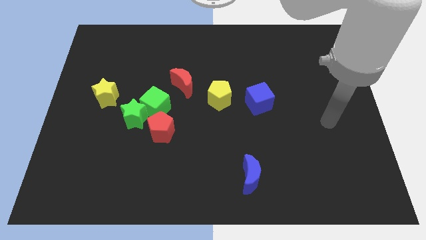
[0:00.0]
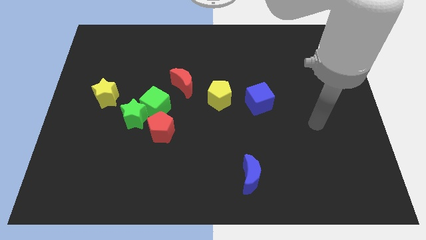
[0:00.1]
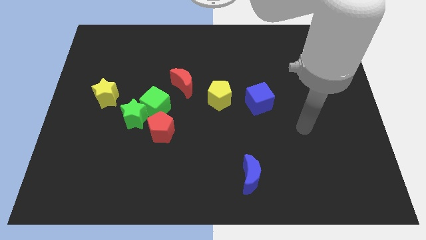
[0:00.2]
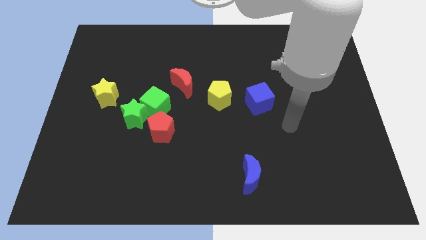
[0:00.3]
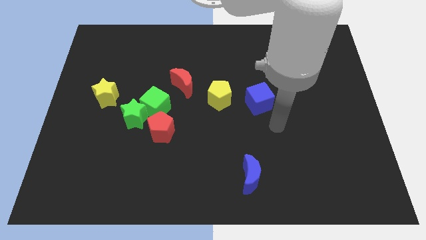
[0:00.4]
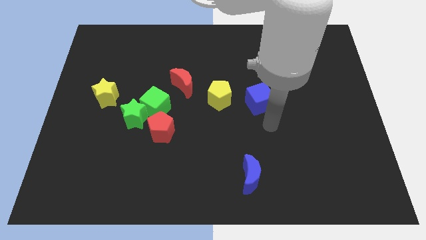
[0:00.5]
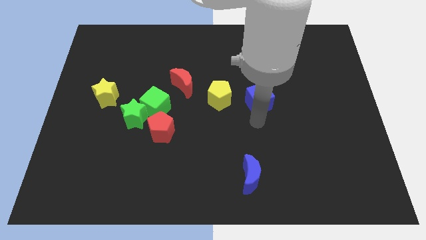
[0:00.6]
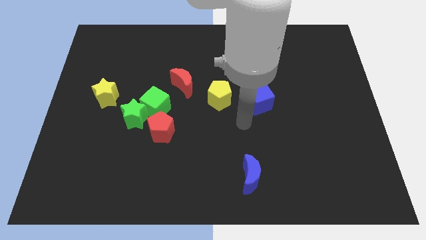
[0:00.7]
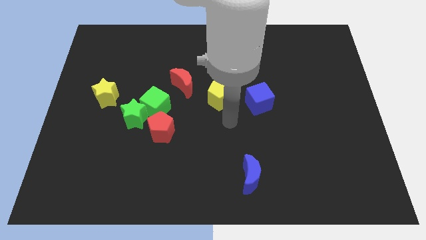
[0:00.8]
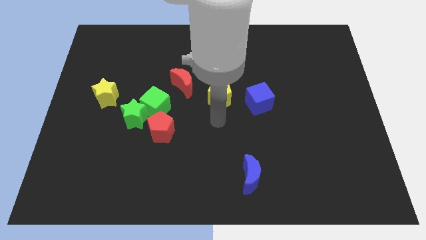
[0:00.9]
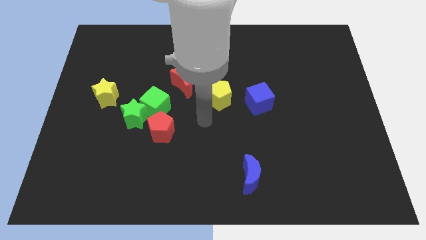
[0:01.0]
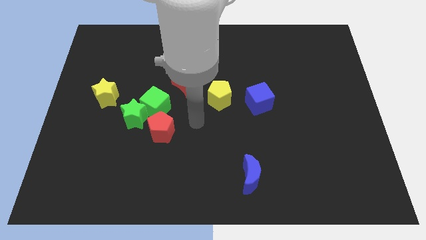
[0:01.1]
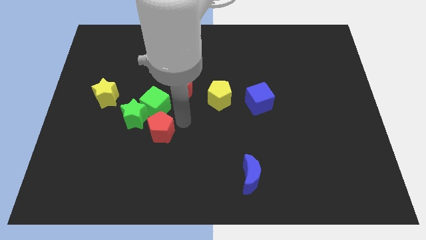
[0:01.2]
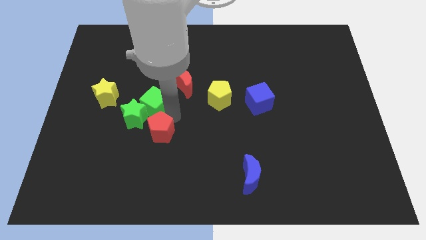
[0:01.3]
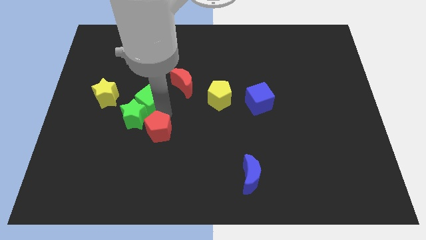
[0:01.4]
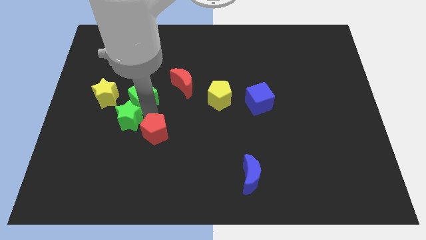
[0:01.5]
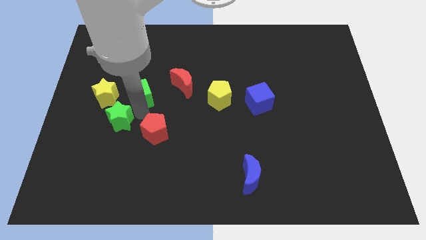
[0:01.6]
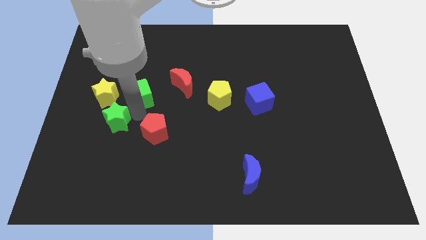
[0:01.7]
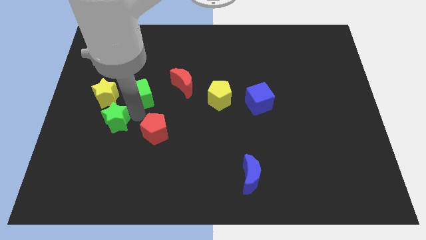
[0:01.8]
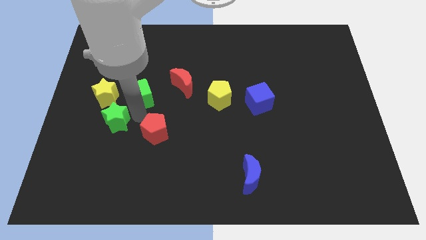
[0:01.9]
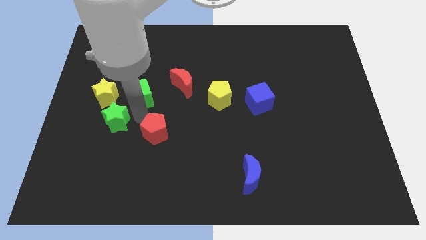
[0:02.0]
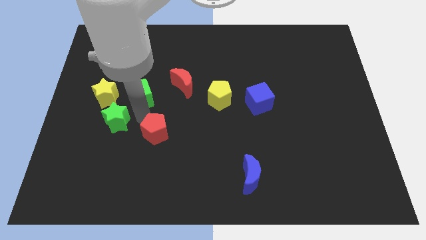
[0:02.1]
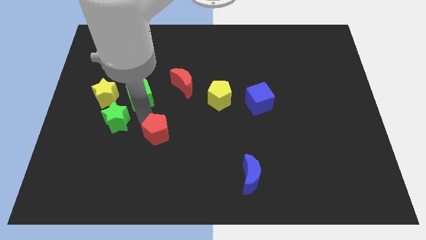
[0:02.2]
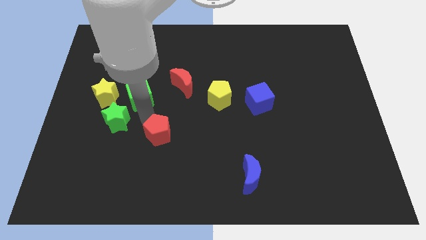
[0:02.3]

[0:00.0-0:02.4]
pull the red pentagon apart from the green cube and green star

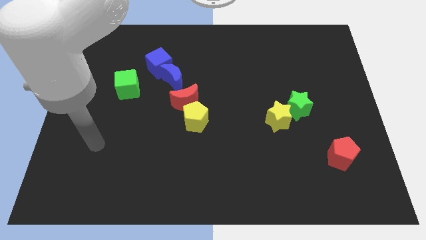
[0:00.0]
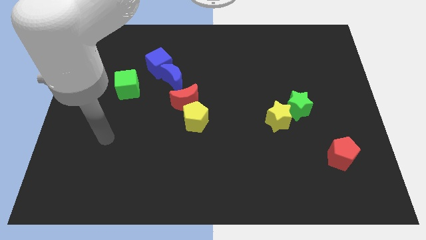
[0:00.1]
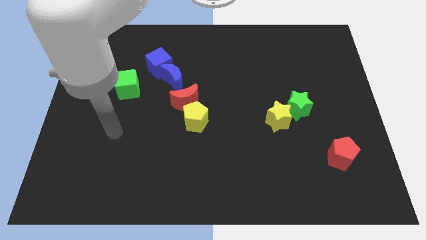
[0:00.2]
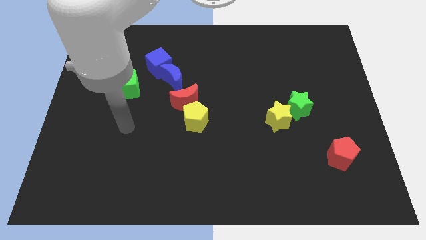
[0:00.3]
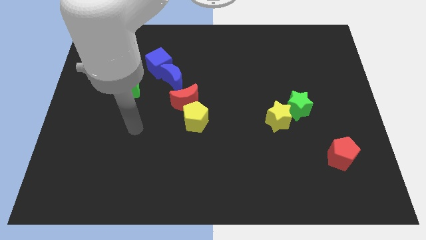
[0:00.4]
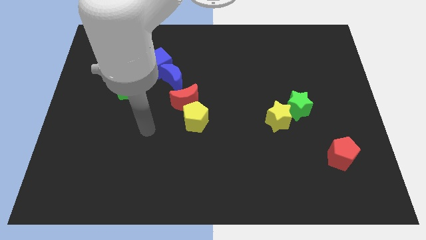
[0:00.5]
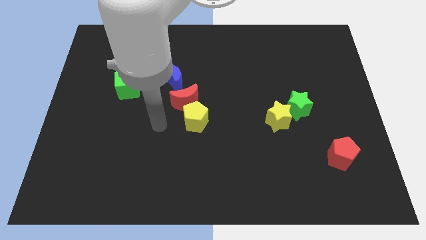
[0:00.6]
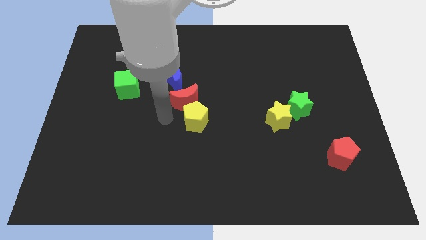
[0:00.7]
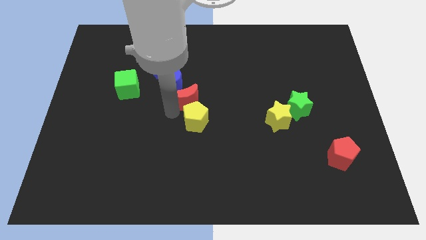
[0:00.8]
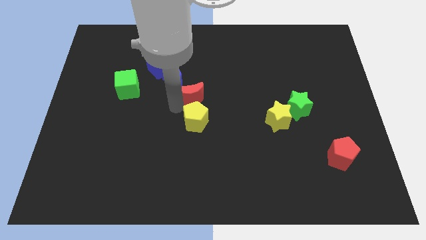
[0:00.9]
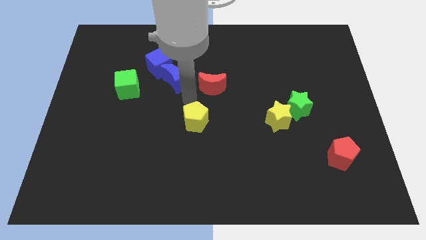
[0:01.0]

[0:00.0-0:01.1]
move the yellow pentagon away from the red moon

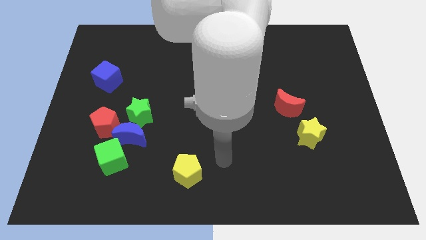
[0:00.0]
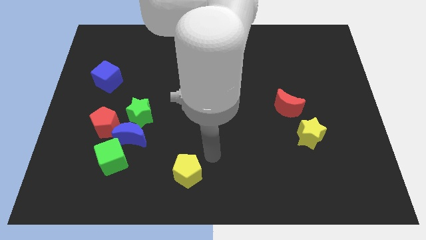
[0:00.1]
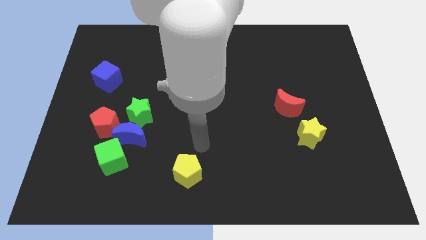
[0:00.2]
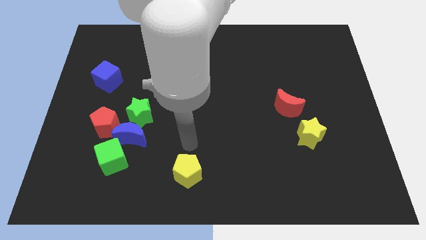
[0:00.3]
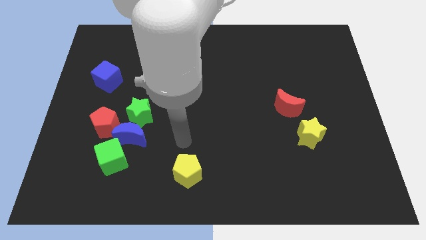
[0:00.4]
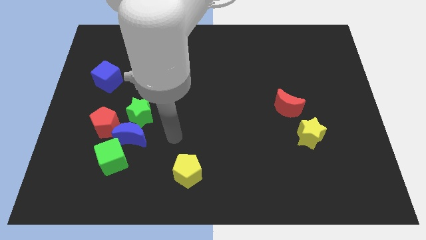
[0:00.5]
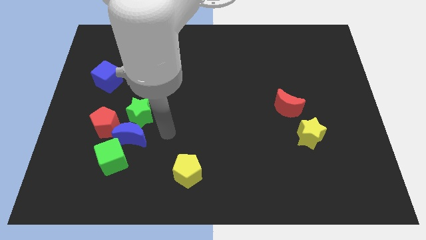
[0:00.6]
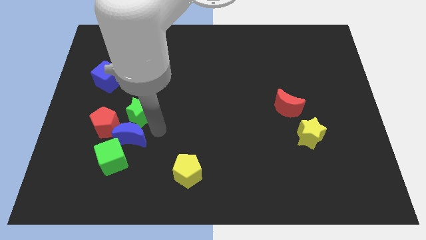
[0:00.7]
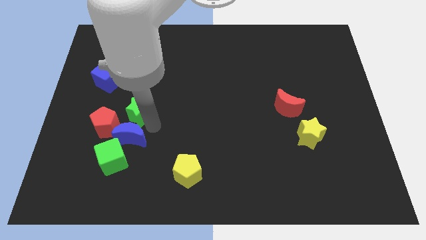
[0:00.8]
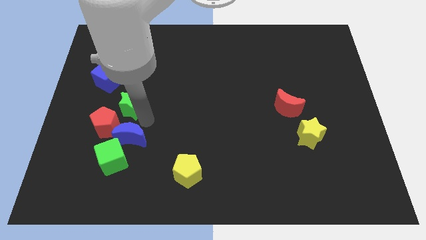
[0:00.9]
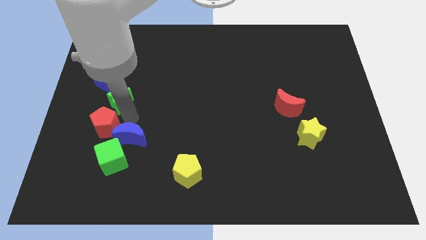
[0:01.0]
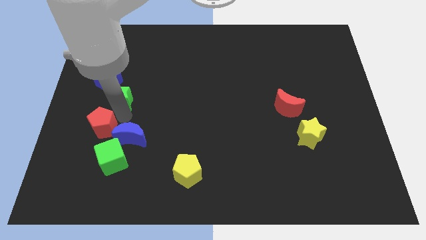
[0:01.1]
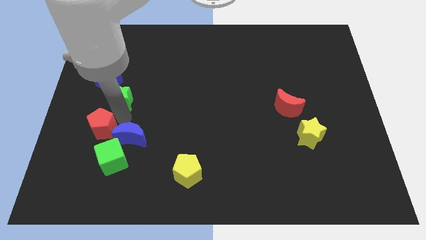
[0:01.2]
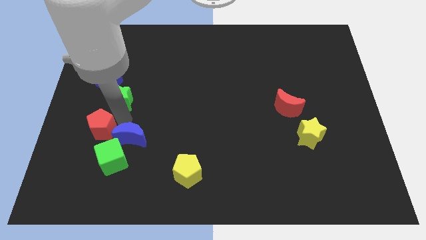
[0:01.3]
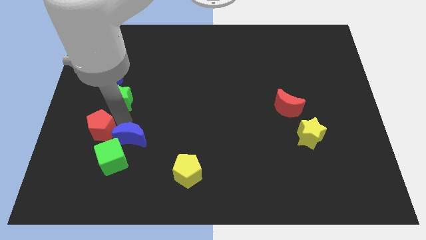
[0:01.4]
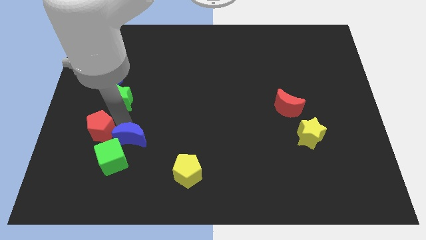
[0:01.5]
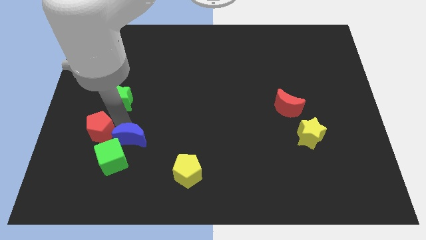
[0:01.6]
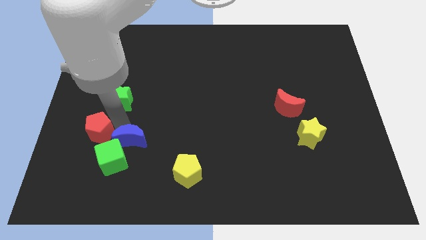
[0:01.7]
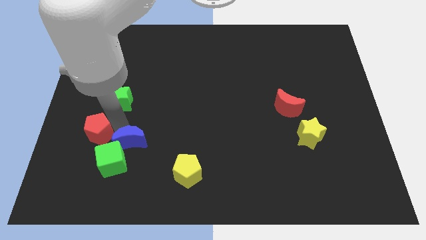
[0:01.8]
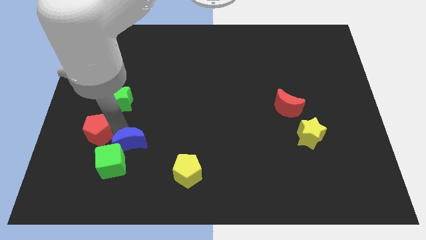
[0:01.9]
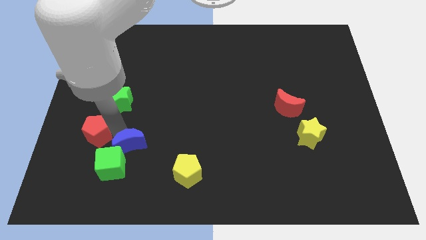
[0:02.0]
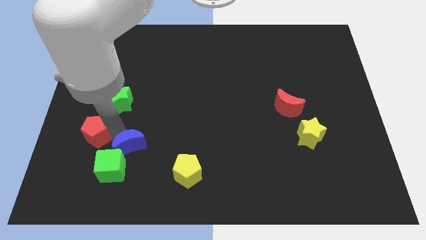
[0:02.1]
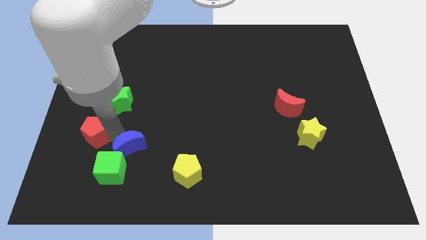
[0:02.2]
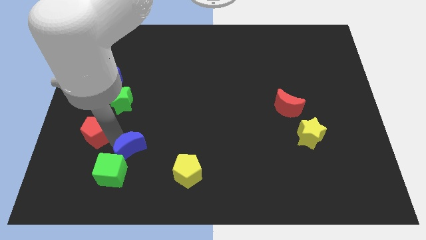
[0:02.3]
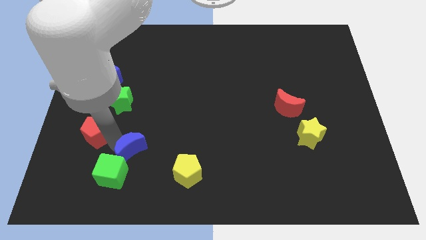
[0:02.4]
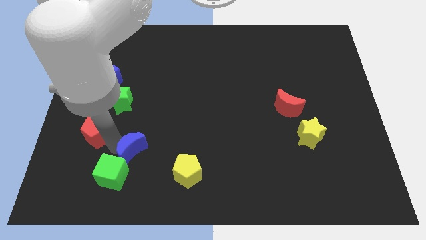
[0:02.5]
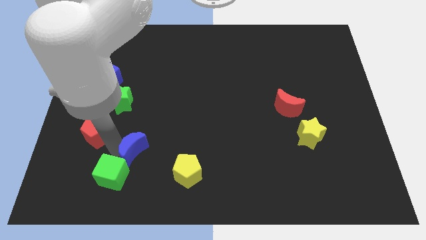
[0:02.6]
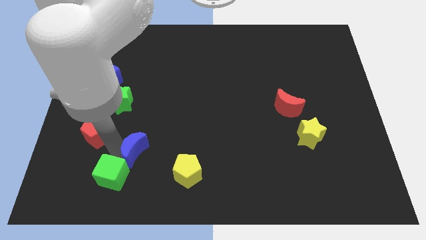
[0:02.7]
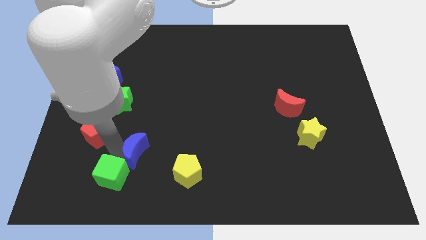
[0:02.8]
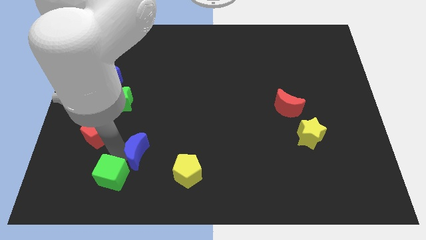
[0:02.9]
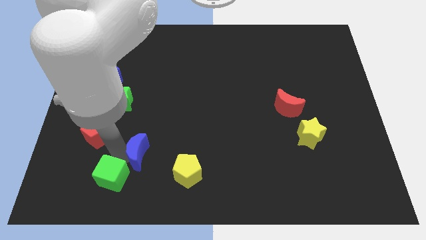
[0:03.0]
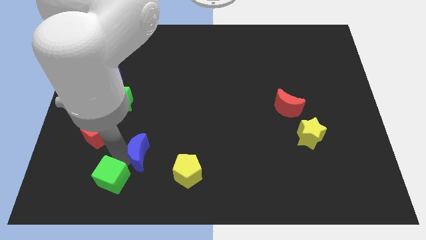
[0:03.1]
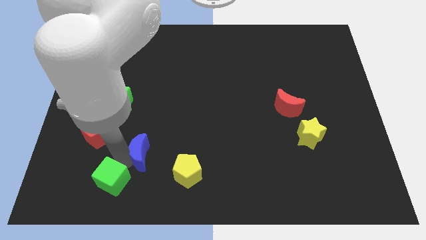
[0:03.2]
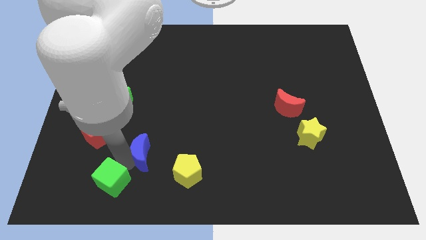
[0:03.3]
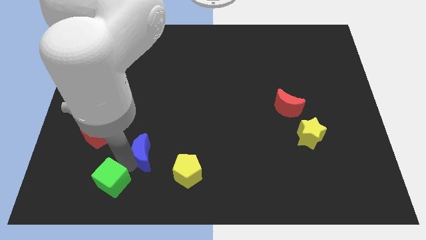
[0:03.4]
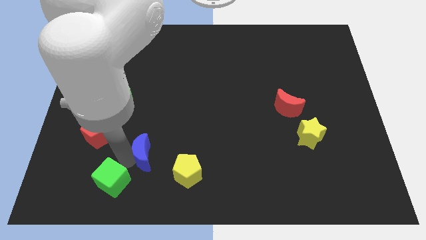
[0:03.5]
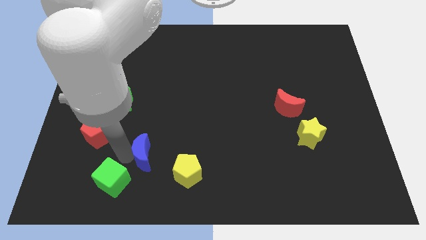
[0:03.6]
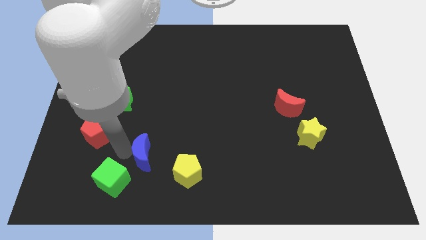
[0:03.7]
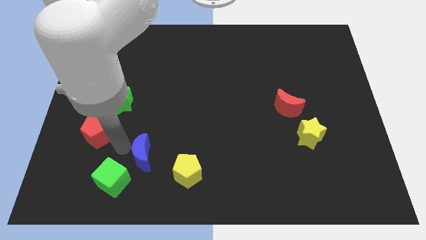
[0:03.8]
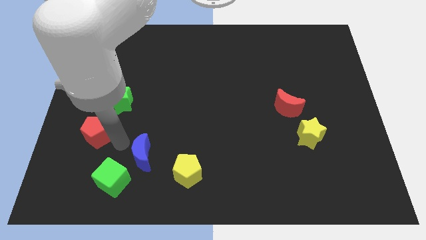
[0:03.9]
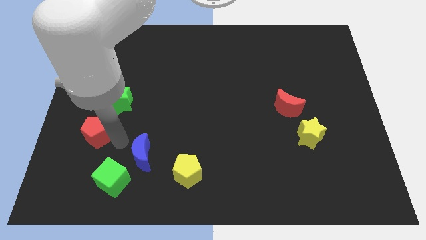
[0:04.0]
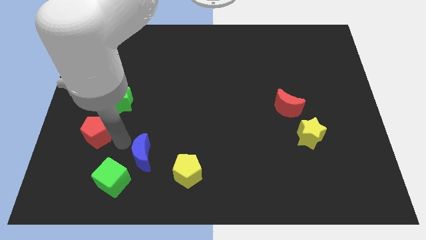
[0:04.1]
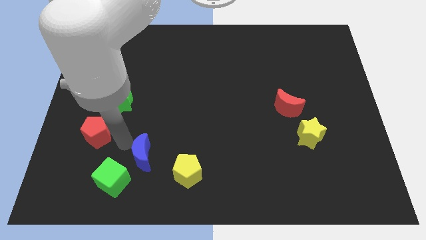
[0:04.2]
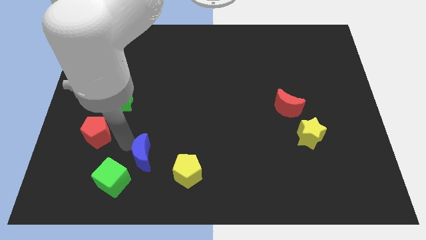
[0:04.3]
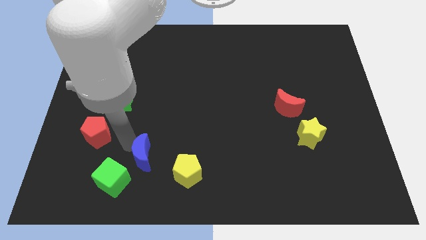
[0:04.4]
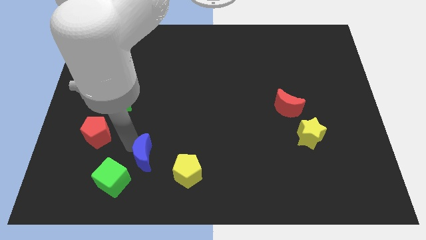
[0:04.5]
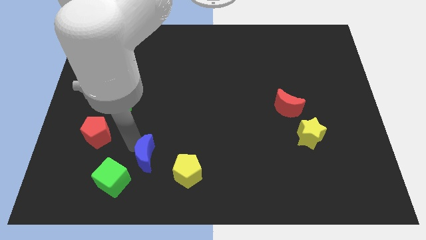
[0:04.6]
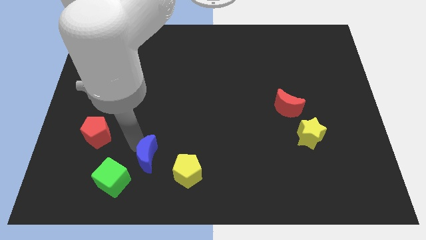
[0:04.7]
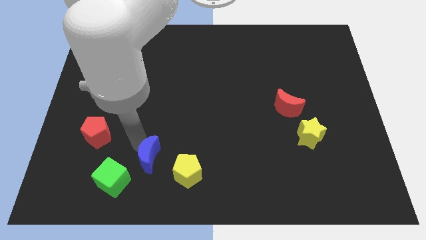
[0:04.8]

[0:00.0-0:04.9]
move the blue moon away from the group

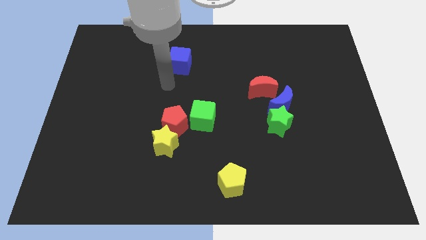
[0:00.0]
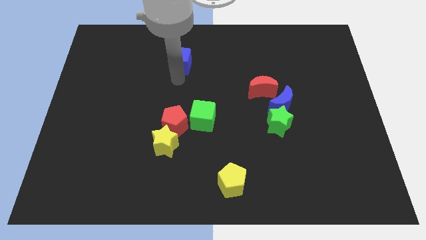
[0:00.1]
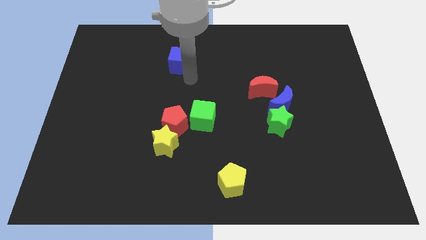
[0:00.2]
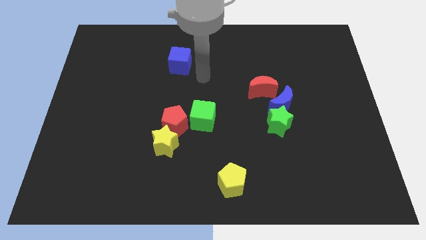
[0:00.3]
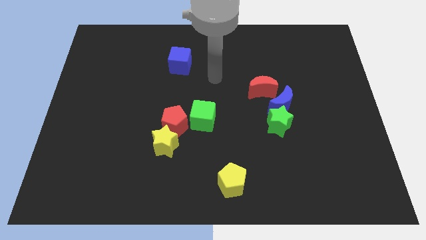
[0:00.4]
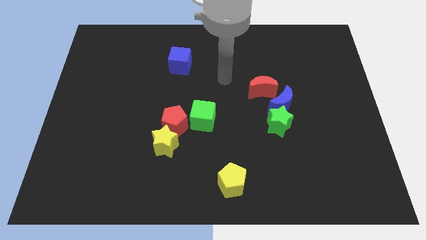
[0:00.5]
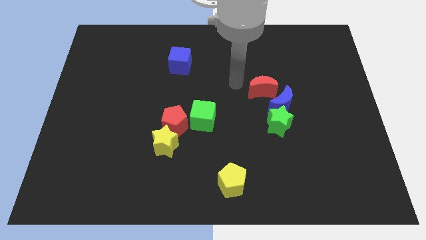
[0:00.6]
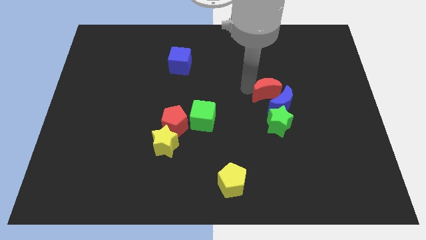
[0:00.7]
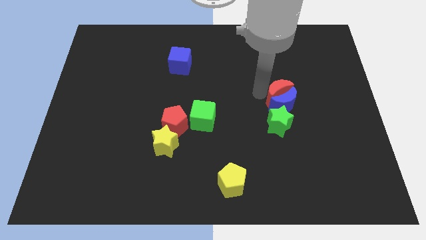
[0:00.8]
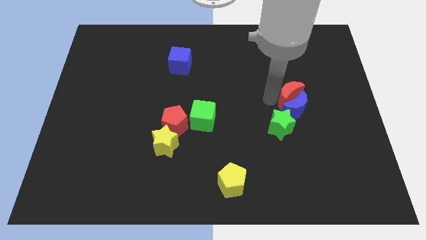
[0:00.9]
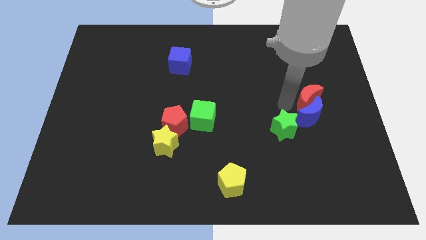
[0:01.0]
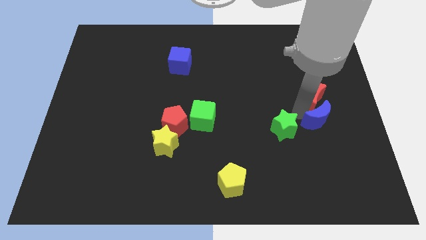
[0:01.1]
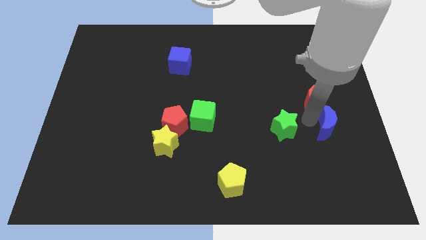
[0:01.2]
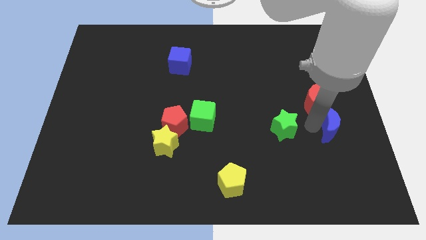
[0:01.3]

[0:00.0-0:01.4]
pull the green star apart from the blue moon
